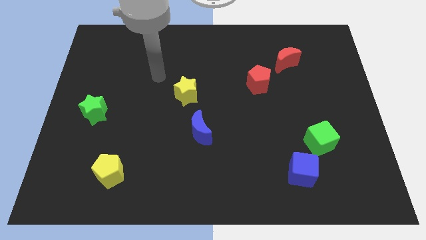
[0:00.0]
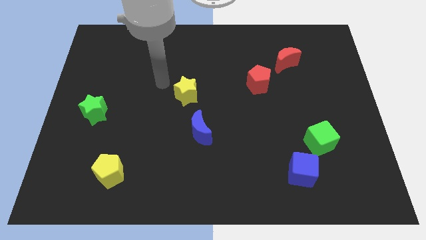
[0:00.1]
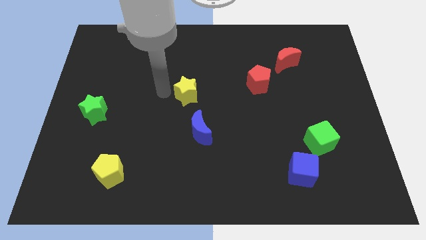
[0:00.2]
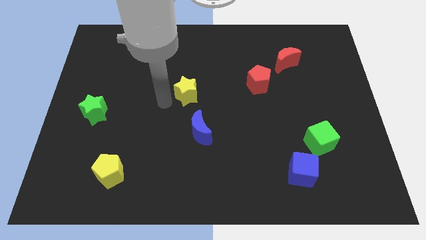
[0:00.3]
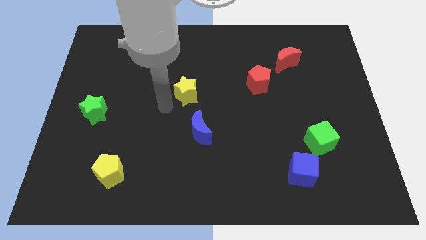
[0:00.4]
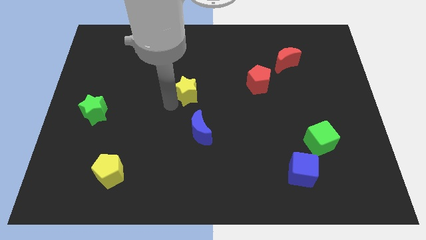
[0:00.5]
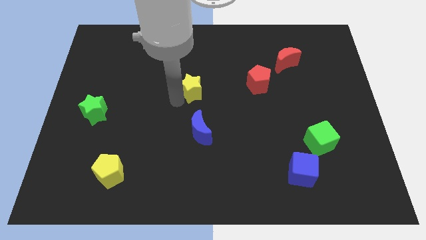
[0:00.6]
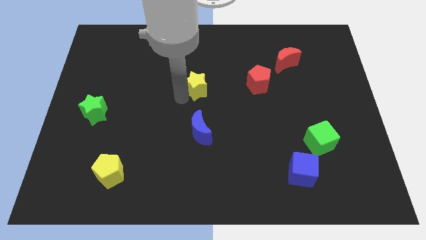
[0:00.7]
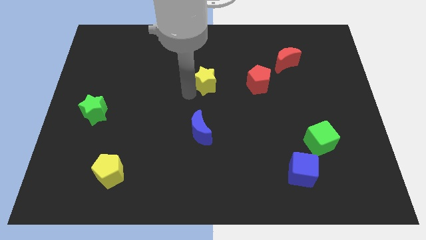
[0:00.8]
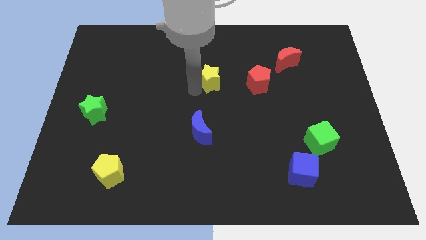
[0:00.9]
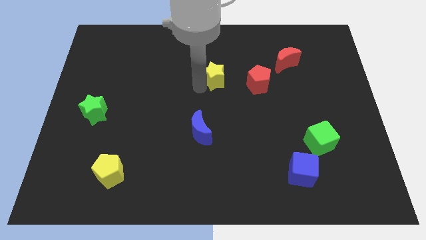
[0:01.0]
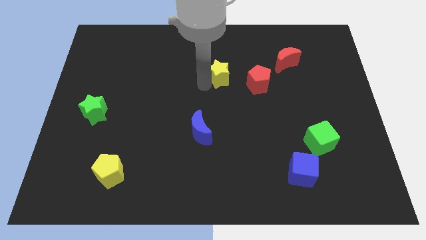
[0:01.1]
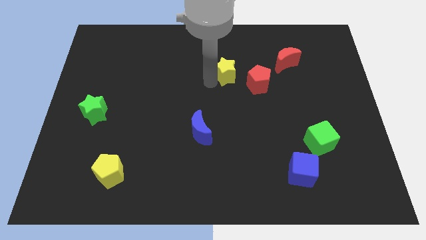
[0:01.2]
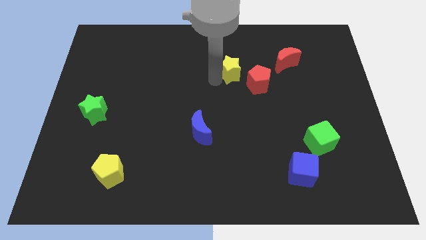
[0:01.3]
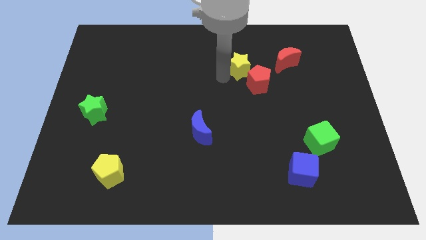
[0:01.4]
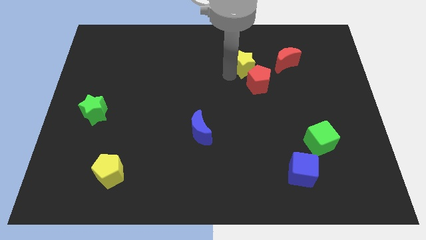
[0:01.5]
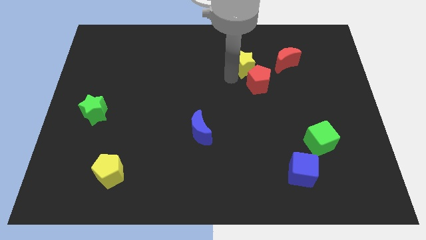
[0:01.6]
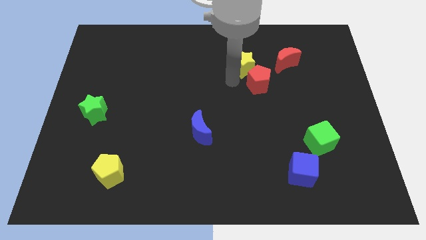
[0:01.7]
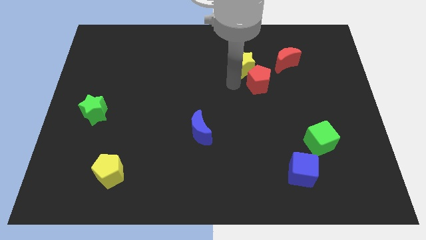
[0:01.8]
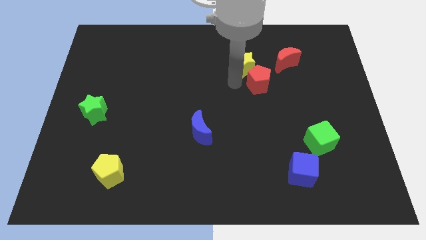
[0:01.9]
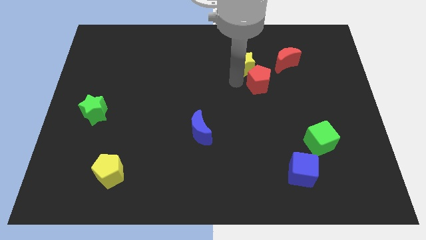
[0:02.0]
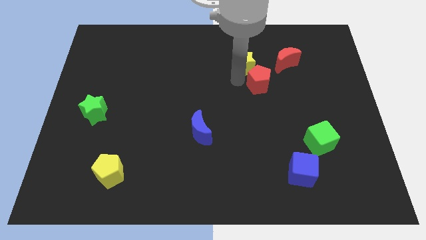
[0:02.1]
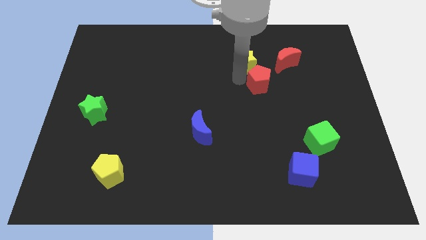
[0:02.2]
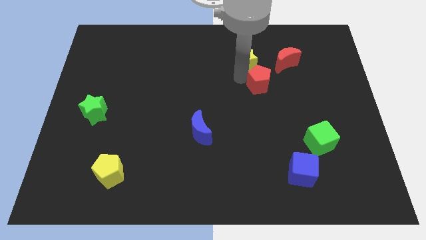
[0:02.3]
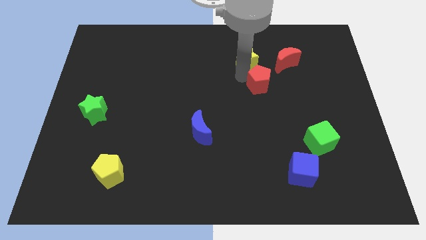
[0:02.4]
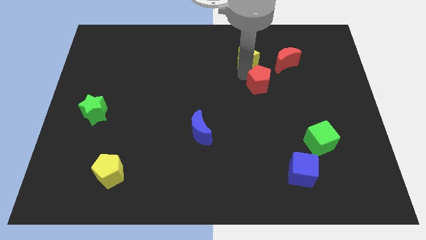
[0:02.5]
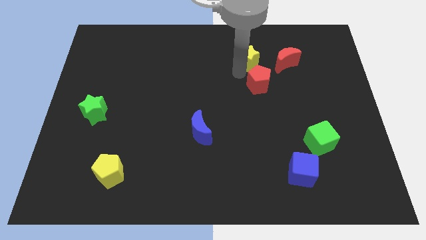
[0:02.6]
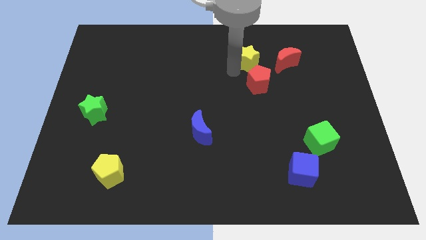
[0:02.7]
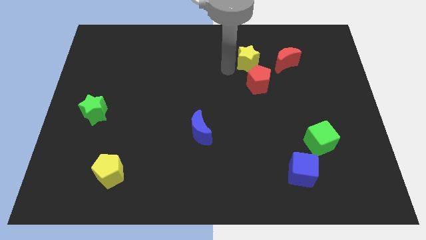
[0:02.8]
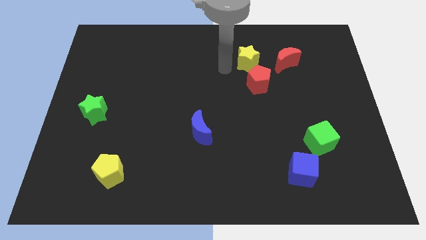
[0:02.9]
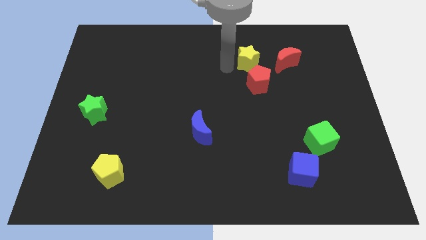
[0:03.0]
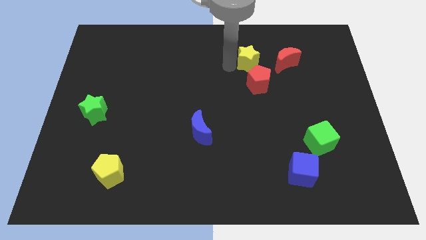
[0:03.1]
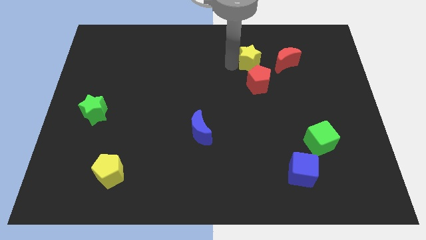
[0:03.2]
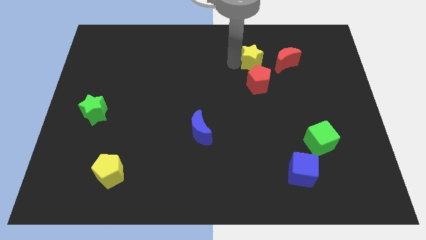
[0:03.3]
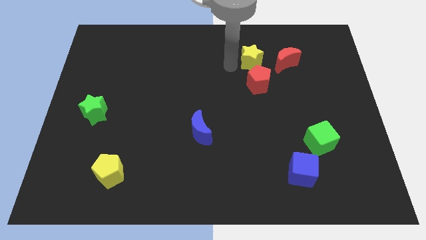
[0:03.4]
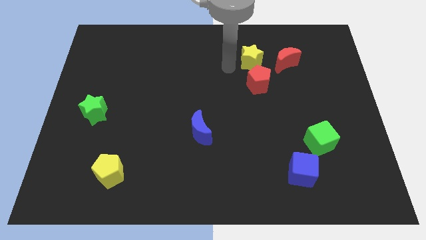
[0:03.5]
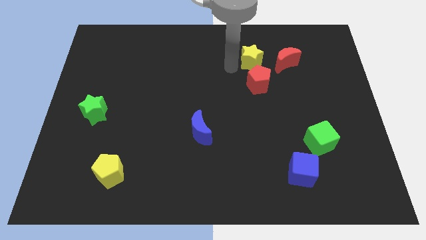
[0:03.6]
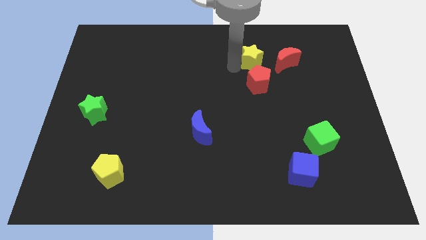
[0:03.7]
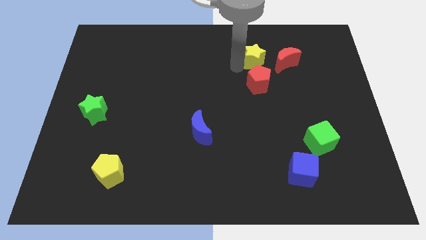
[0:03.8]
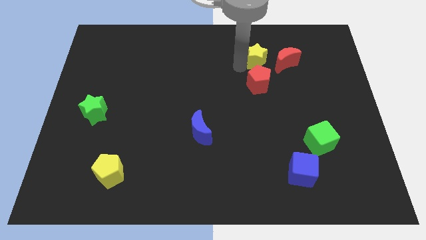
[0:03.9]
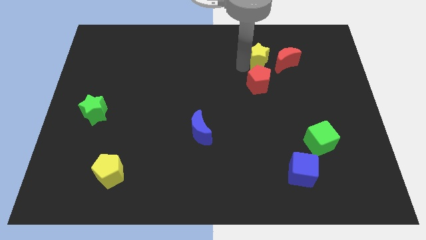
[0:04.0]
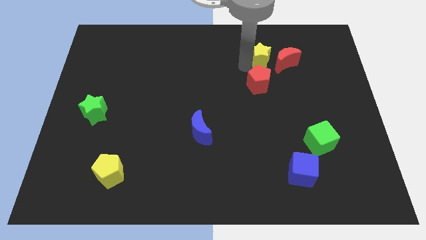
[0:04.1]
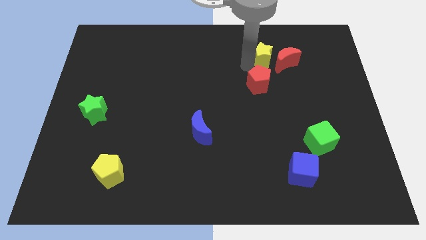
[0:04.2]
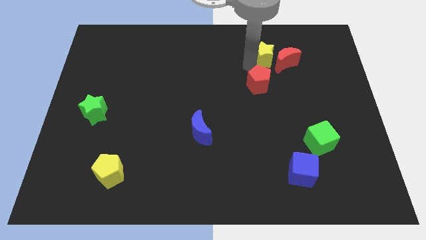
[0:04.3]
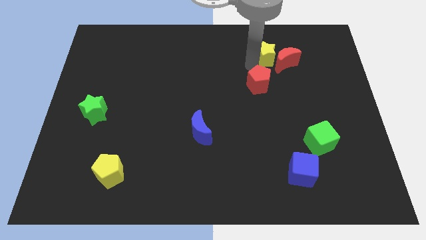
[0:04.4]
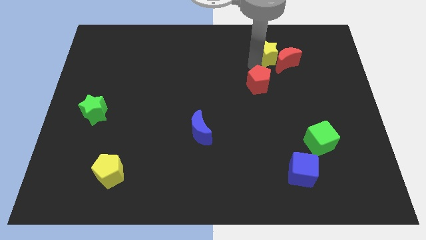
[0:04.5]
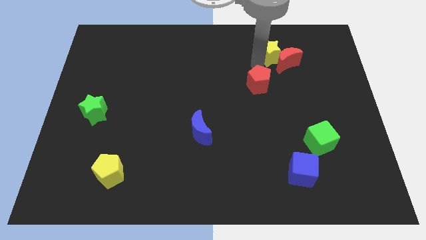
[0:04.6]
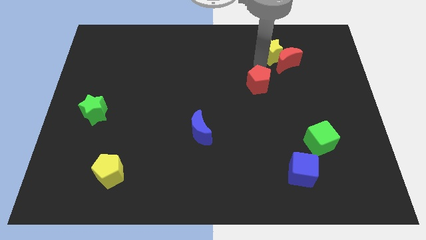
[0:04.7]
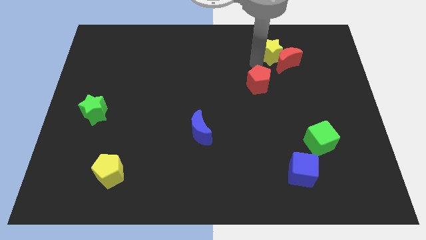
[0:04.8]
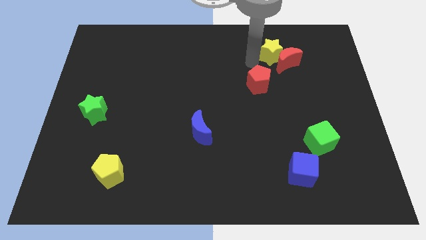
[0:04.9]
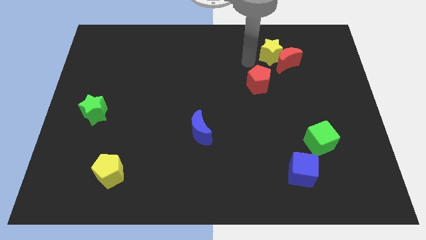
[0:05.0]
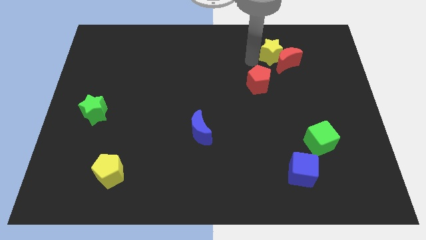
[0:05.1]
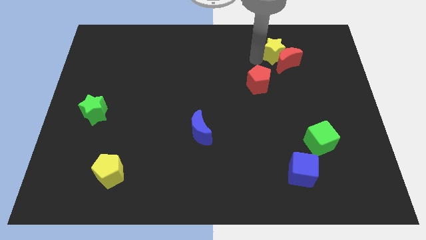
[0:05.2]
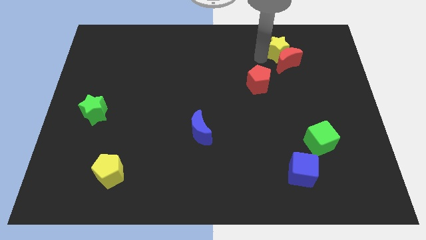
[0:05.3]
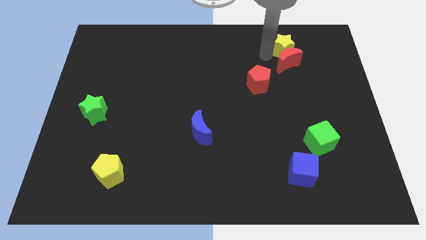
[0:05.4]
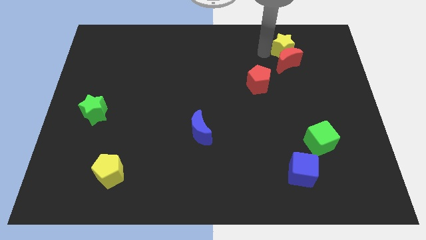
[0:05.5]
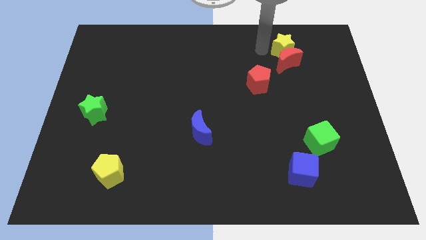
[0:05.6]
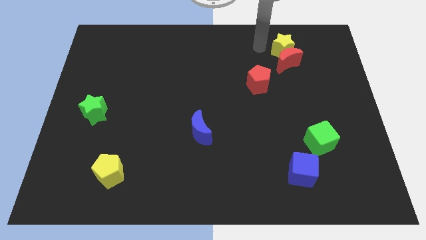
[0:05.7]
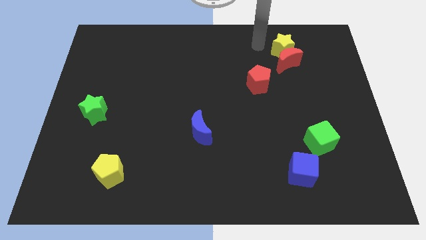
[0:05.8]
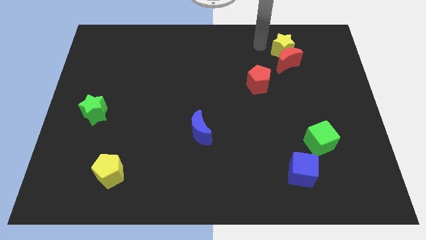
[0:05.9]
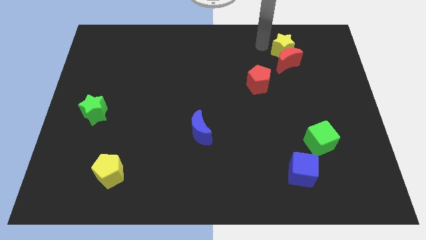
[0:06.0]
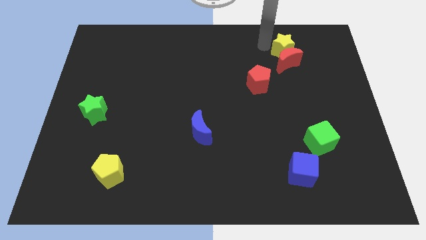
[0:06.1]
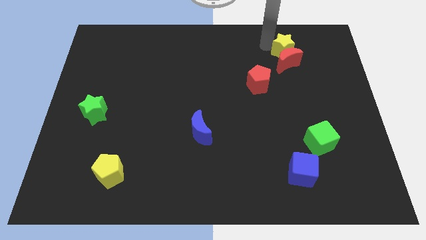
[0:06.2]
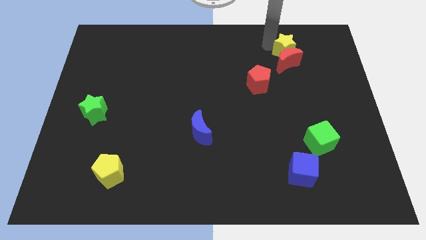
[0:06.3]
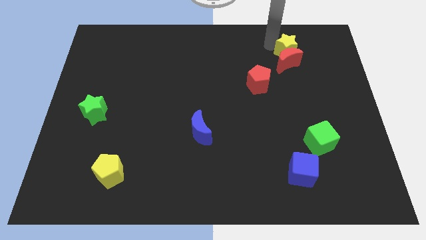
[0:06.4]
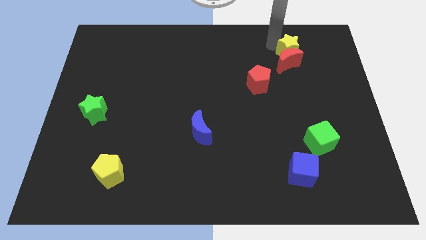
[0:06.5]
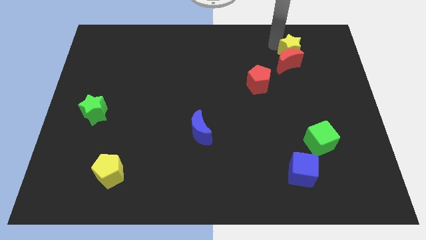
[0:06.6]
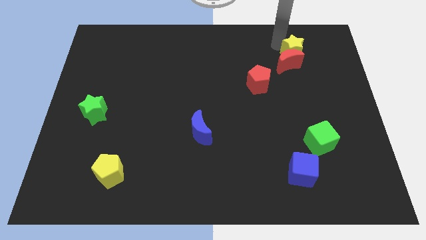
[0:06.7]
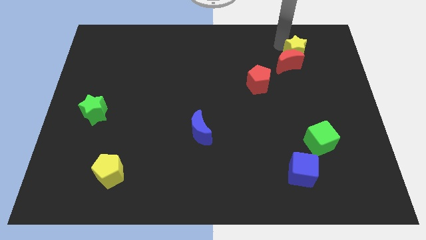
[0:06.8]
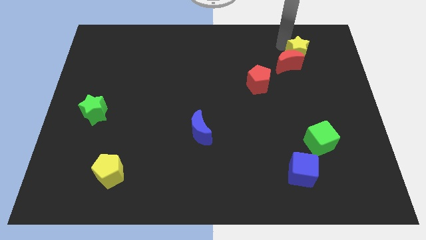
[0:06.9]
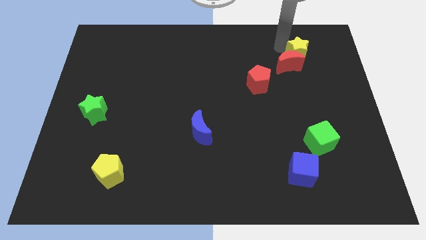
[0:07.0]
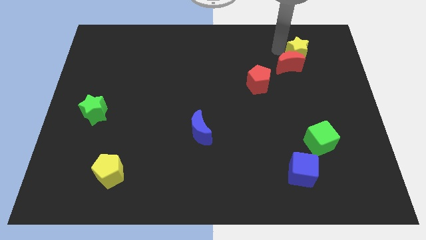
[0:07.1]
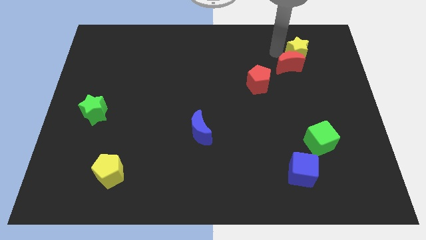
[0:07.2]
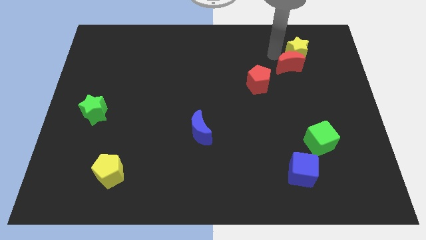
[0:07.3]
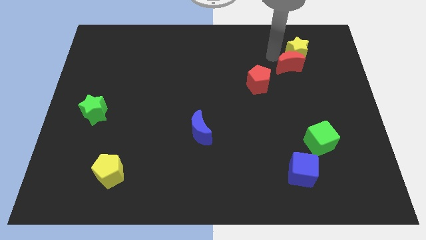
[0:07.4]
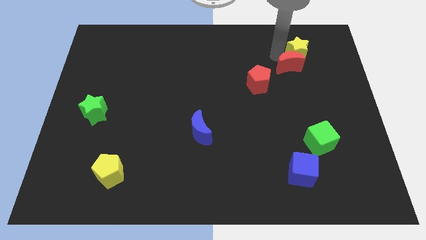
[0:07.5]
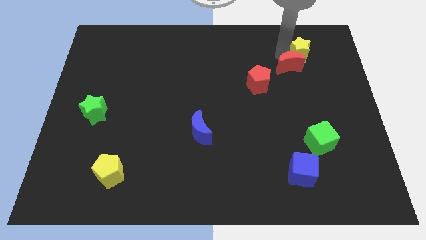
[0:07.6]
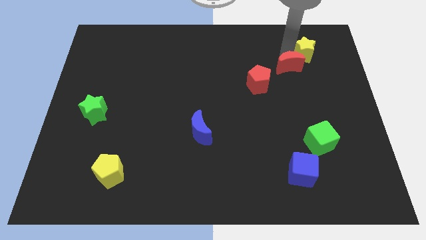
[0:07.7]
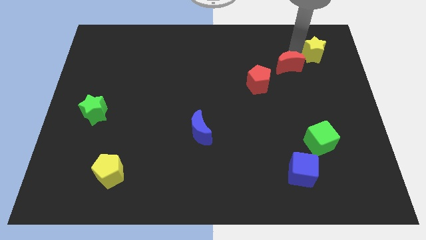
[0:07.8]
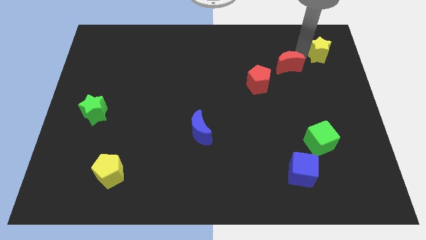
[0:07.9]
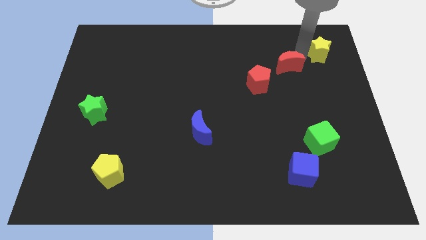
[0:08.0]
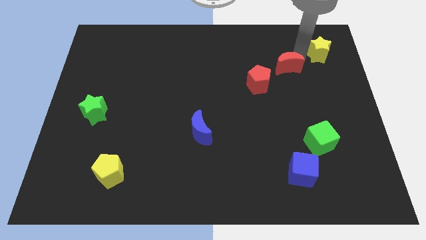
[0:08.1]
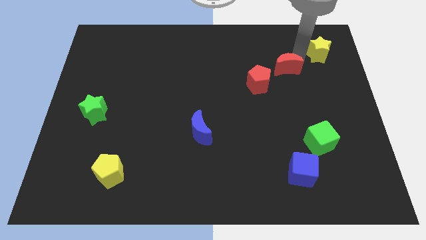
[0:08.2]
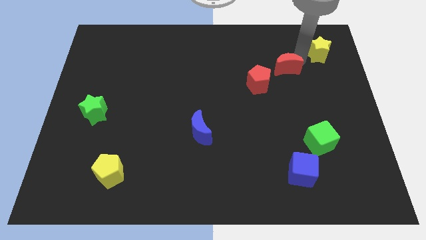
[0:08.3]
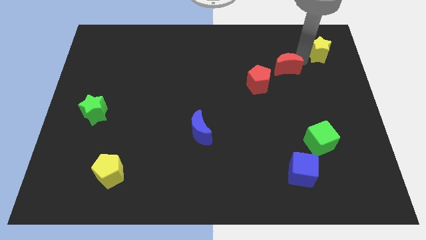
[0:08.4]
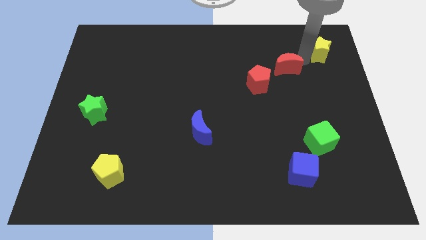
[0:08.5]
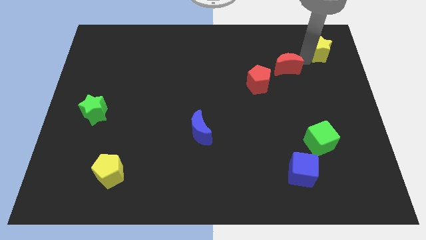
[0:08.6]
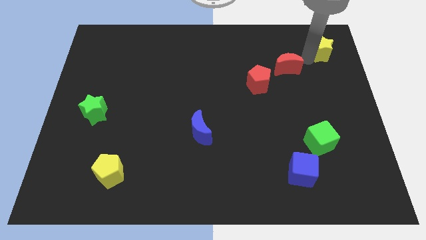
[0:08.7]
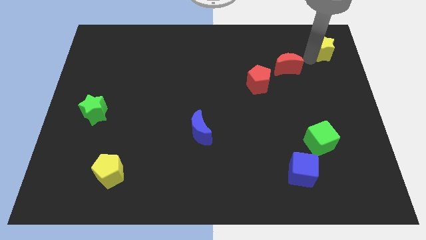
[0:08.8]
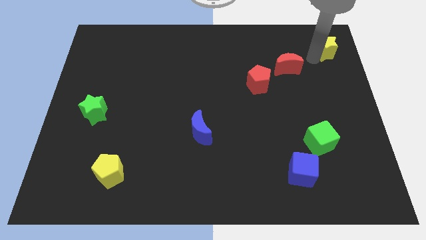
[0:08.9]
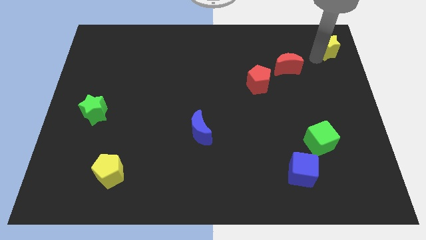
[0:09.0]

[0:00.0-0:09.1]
put the yellow star to the top right corner
